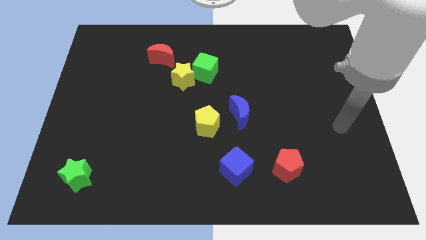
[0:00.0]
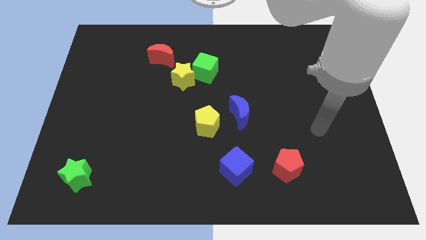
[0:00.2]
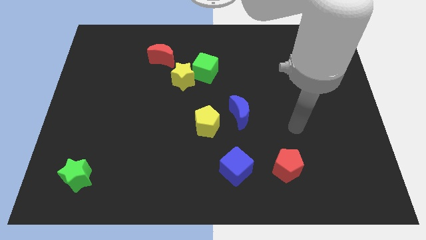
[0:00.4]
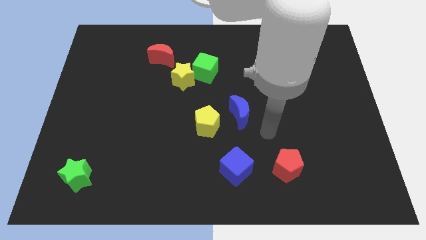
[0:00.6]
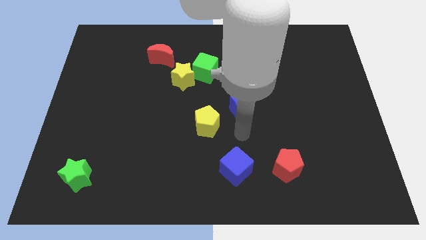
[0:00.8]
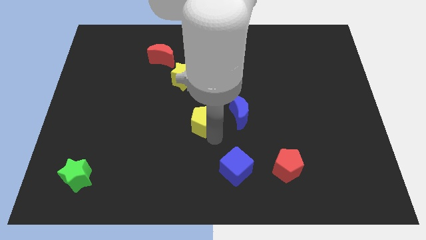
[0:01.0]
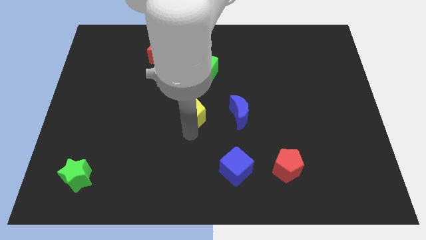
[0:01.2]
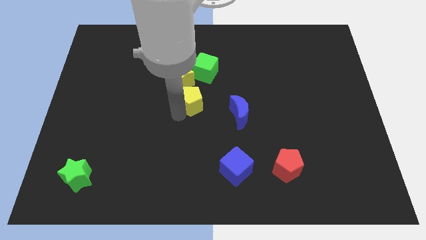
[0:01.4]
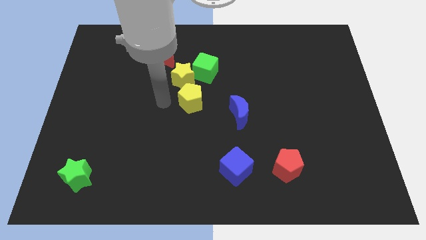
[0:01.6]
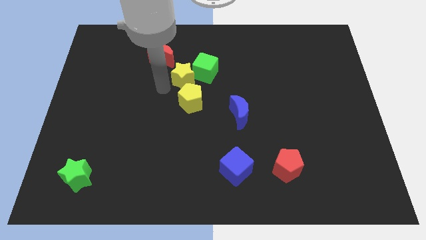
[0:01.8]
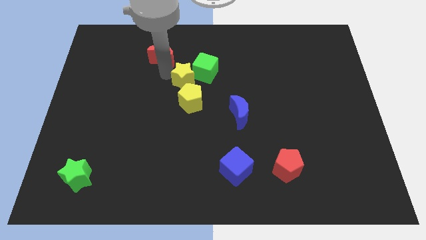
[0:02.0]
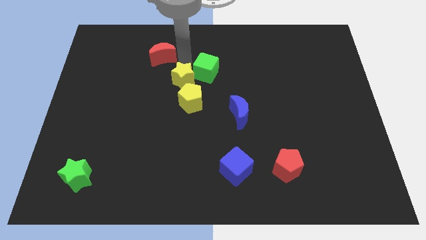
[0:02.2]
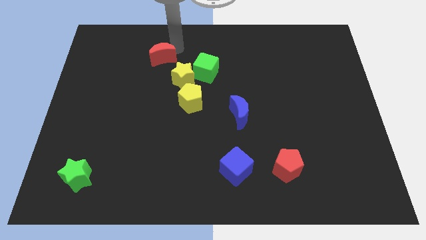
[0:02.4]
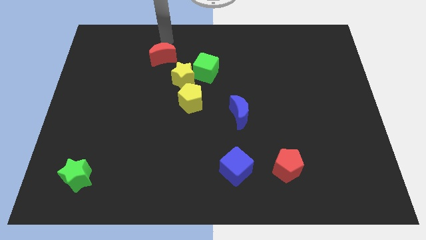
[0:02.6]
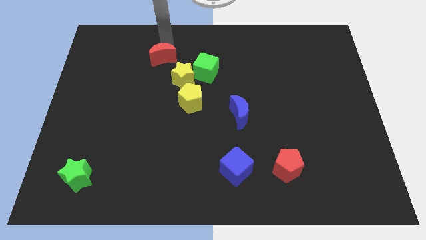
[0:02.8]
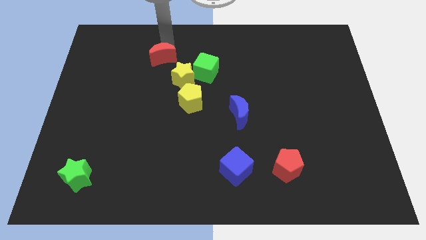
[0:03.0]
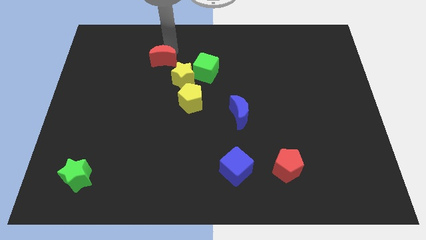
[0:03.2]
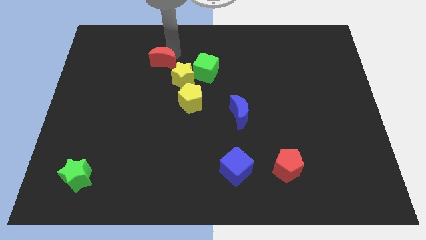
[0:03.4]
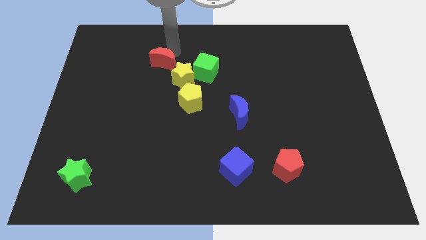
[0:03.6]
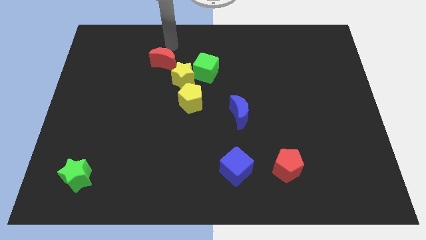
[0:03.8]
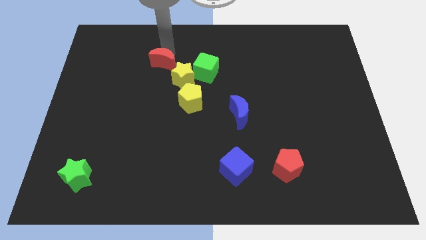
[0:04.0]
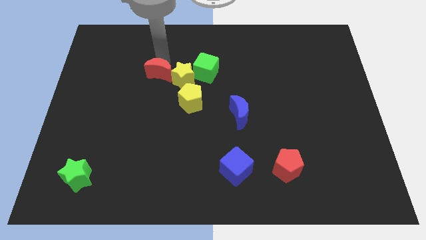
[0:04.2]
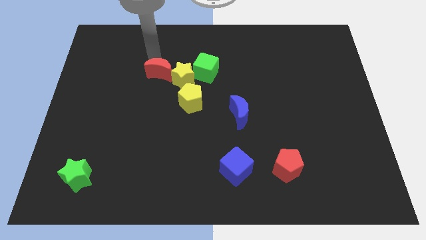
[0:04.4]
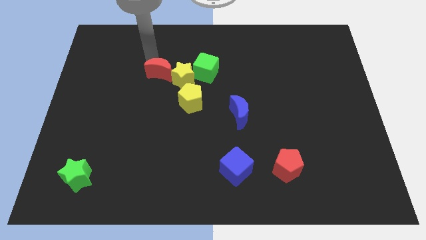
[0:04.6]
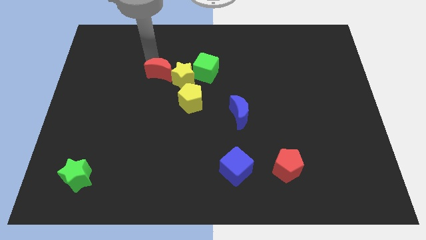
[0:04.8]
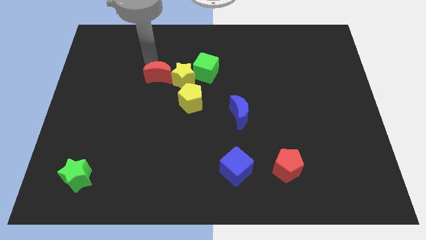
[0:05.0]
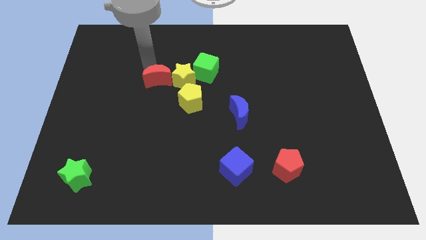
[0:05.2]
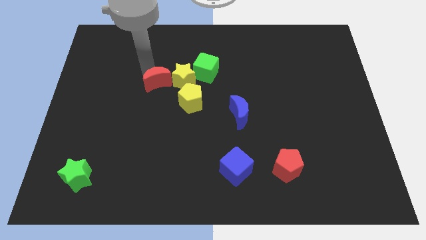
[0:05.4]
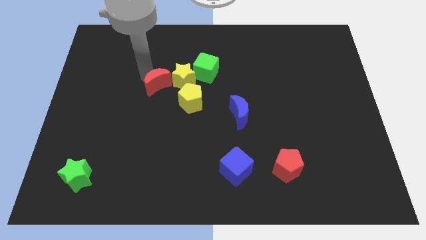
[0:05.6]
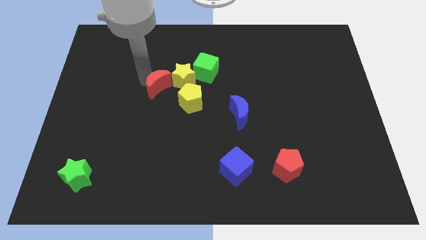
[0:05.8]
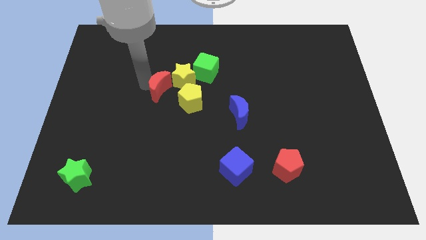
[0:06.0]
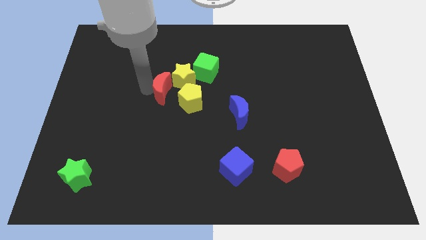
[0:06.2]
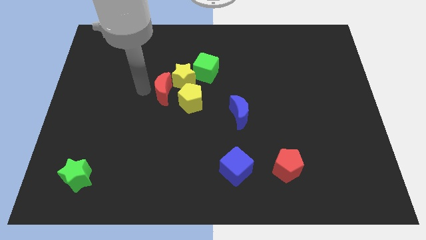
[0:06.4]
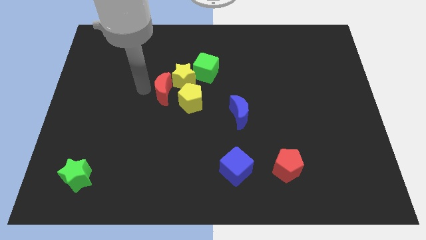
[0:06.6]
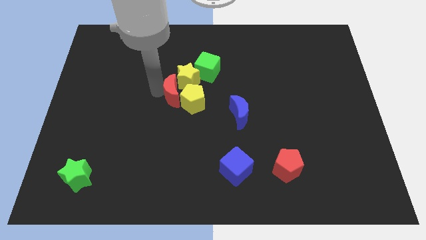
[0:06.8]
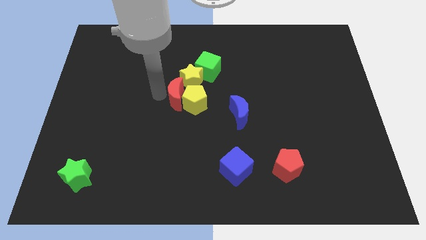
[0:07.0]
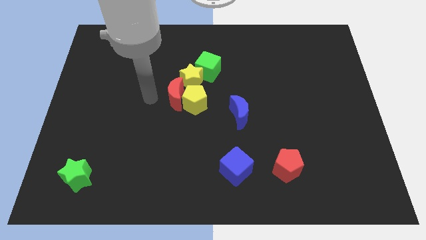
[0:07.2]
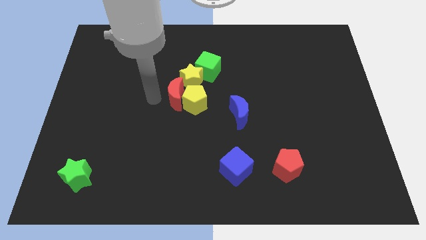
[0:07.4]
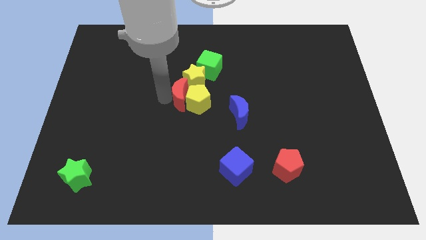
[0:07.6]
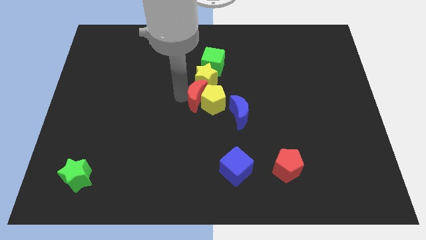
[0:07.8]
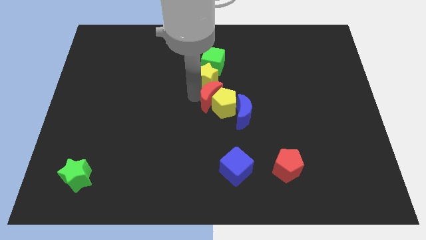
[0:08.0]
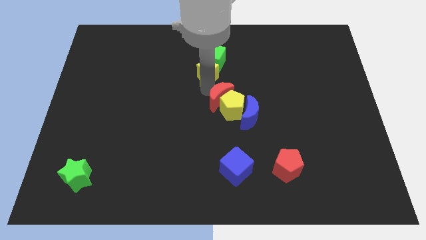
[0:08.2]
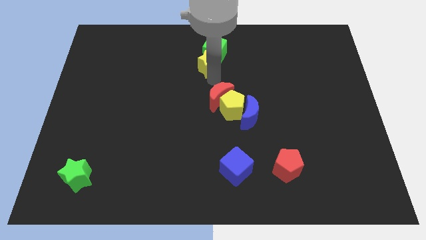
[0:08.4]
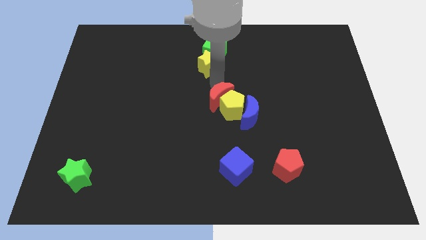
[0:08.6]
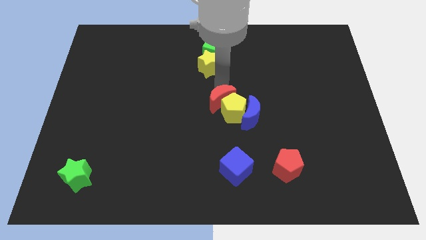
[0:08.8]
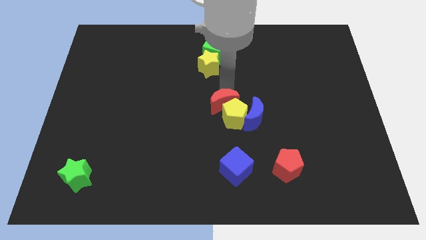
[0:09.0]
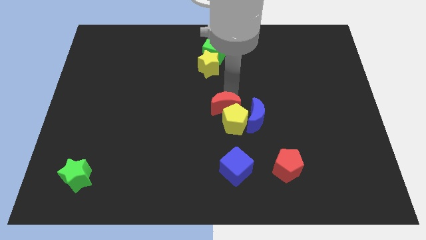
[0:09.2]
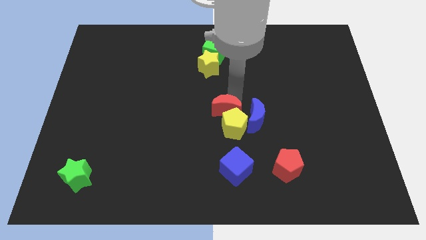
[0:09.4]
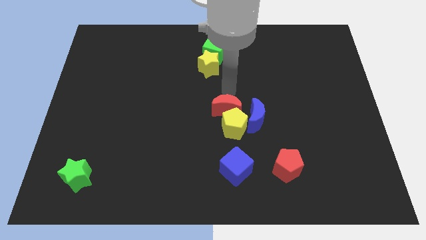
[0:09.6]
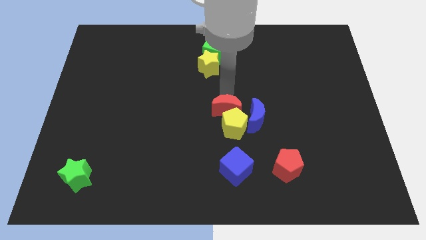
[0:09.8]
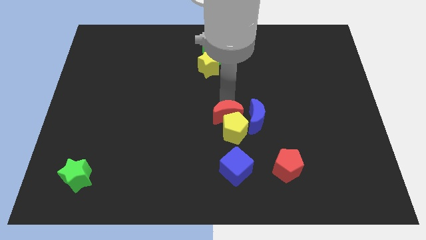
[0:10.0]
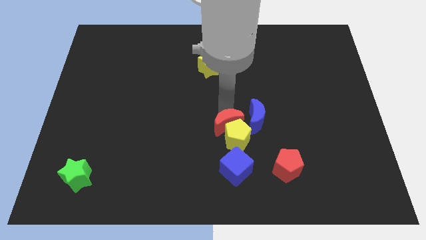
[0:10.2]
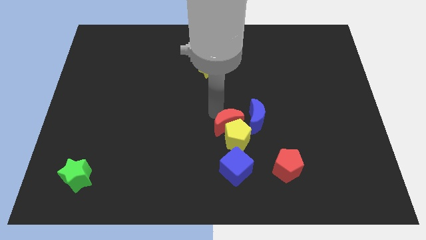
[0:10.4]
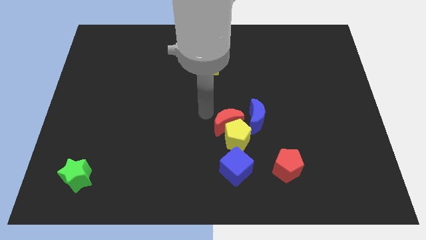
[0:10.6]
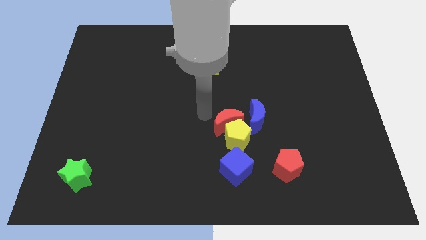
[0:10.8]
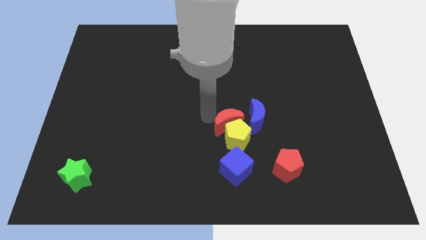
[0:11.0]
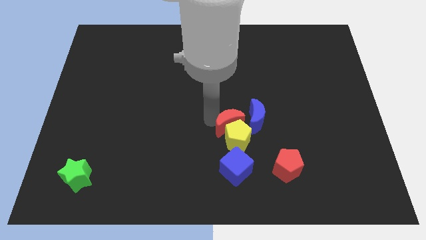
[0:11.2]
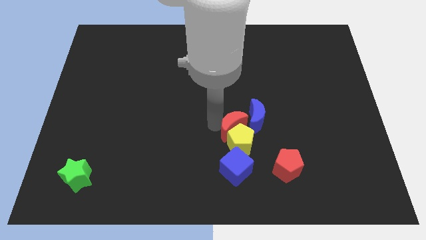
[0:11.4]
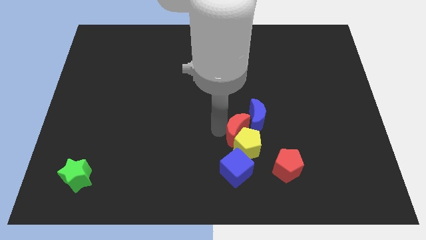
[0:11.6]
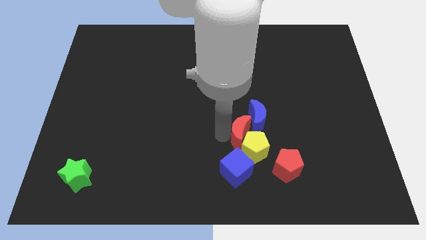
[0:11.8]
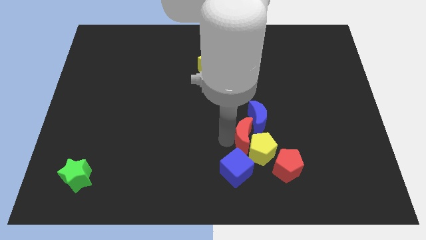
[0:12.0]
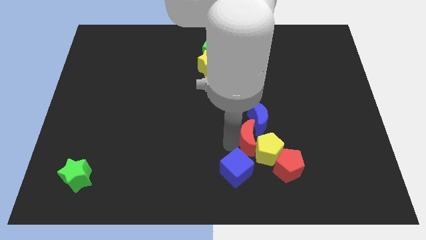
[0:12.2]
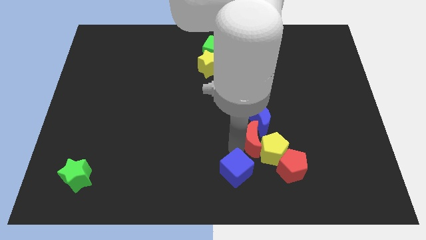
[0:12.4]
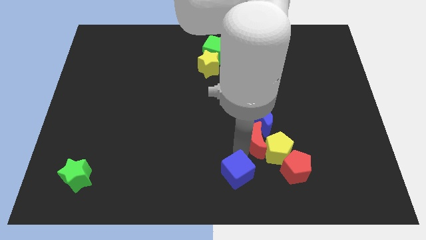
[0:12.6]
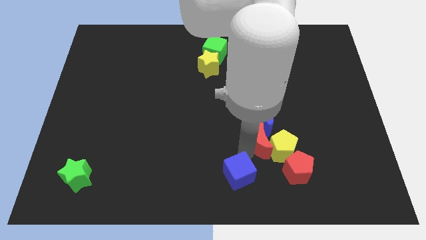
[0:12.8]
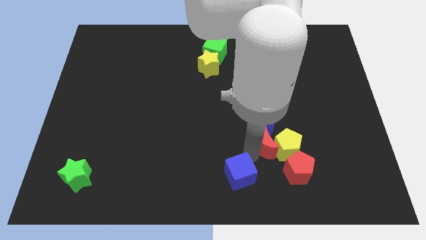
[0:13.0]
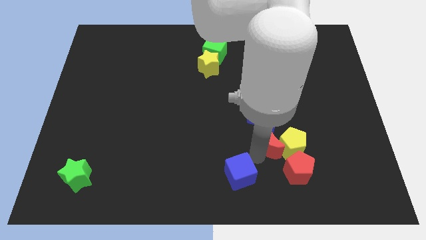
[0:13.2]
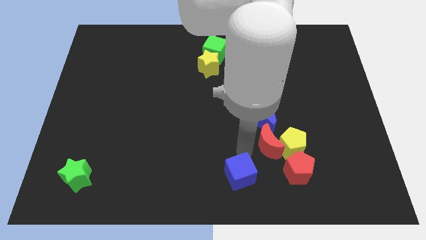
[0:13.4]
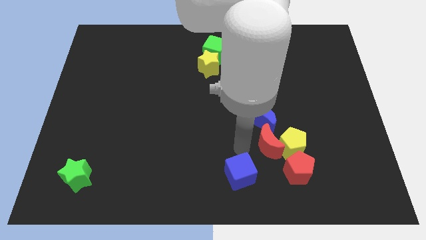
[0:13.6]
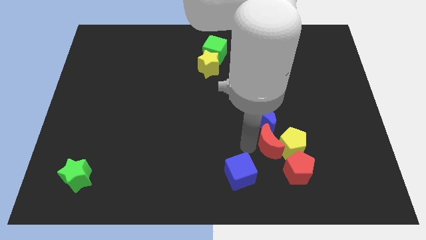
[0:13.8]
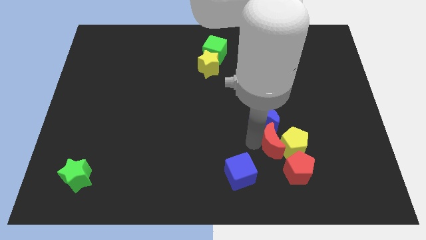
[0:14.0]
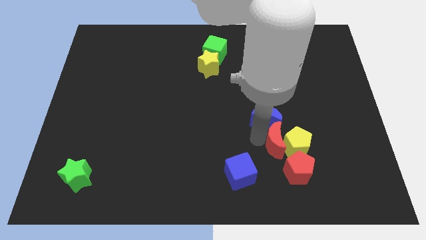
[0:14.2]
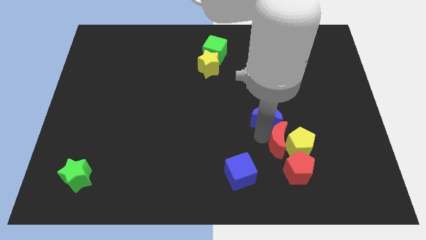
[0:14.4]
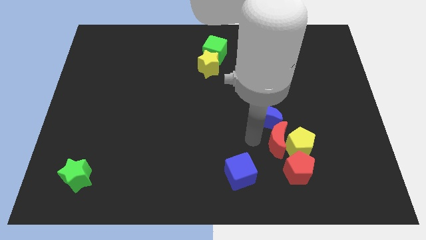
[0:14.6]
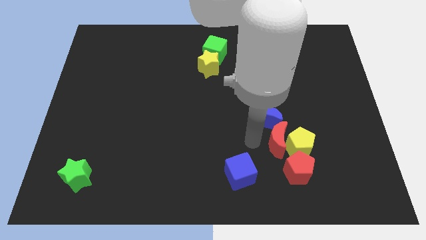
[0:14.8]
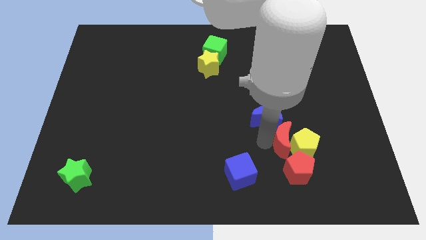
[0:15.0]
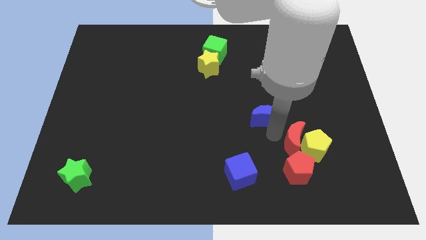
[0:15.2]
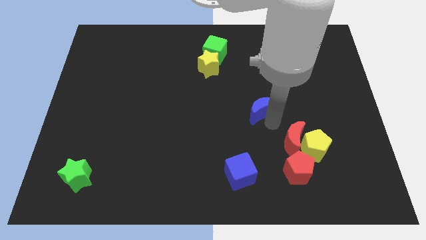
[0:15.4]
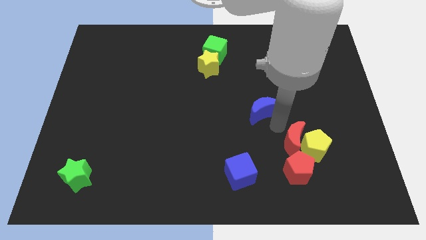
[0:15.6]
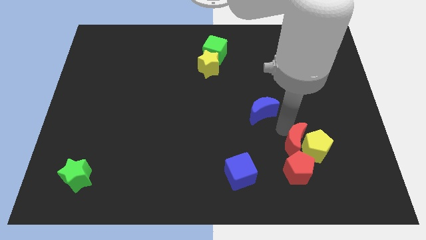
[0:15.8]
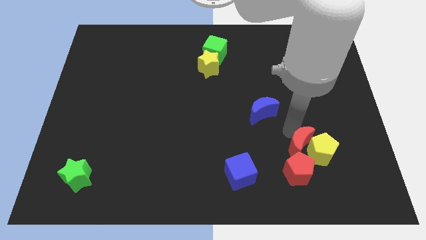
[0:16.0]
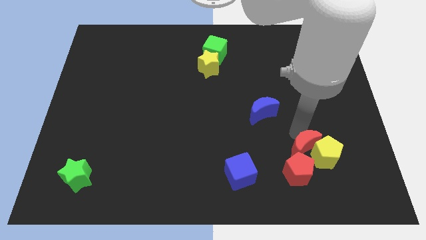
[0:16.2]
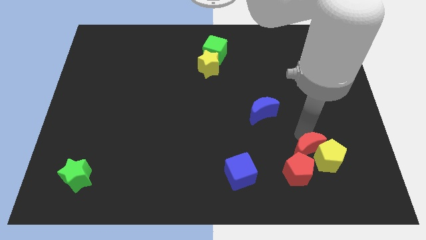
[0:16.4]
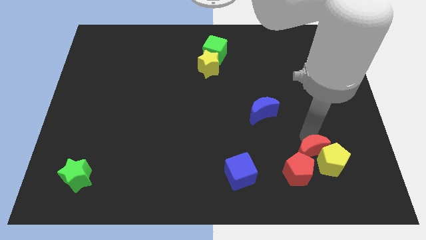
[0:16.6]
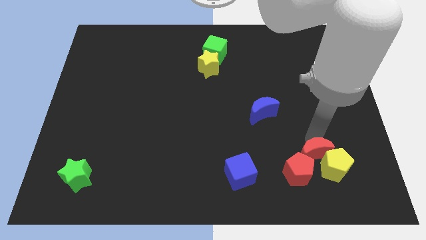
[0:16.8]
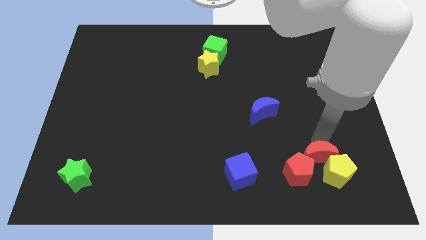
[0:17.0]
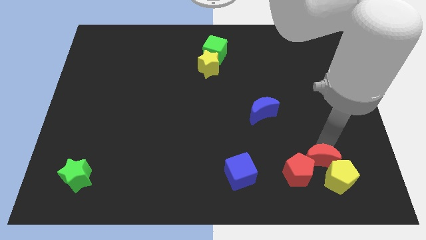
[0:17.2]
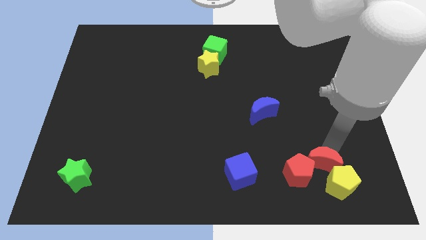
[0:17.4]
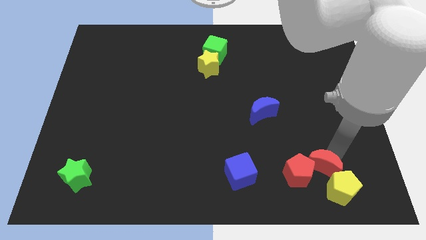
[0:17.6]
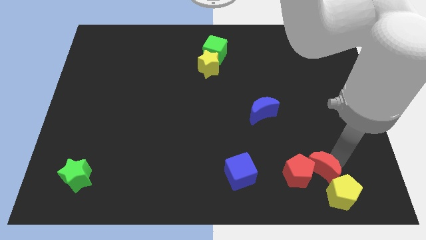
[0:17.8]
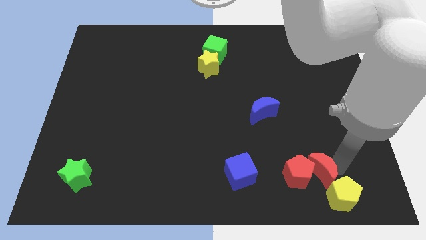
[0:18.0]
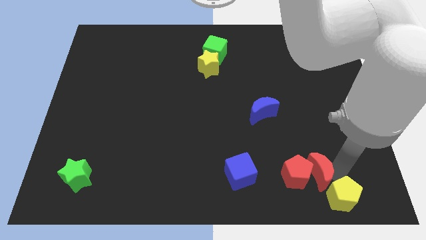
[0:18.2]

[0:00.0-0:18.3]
slide the red moon to the right side of the blue cube
